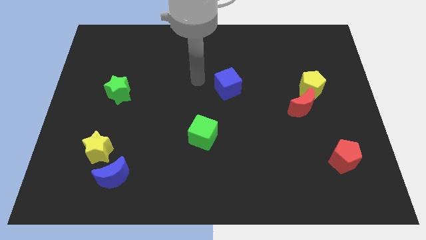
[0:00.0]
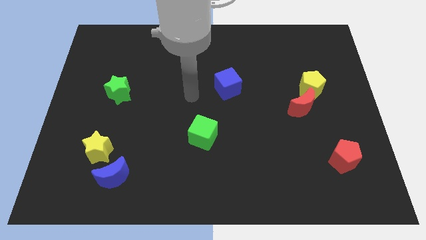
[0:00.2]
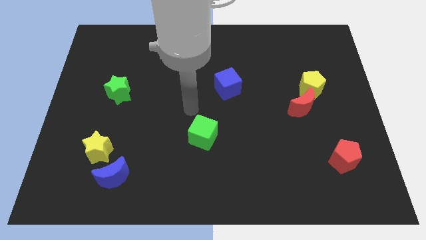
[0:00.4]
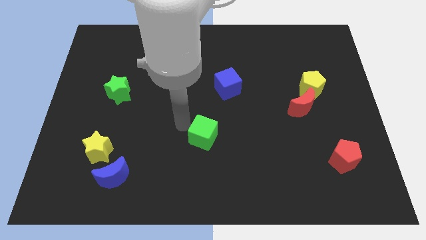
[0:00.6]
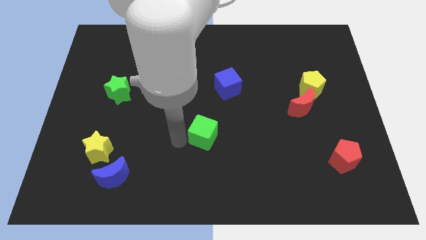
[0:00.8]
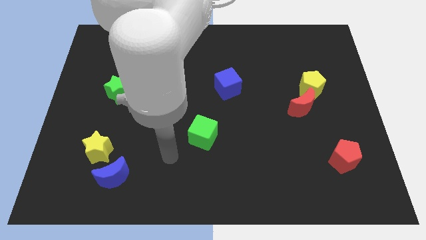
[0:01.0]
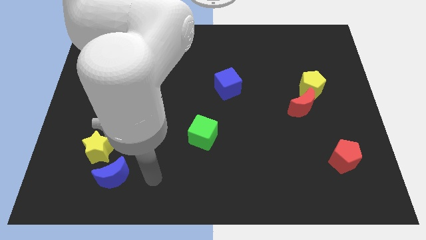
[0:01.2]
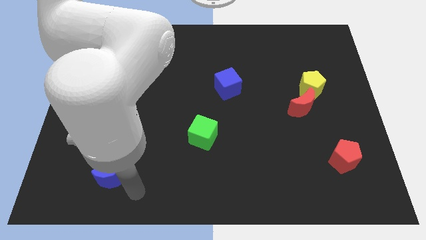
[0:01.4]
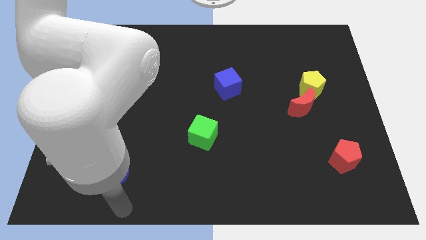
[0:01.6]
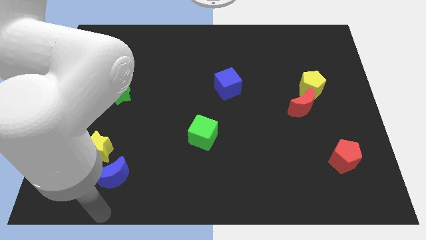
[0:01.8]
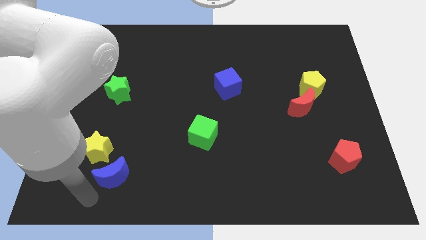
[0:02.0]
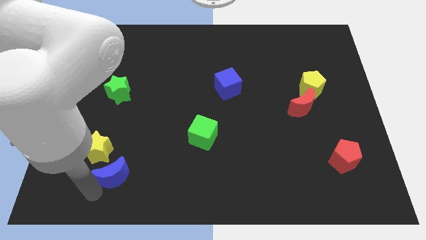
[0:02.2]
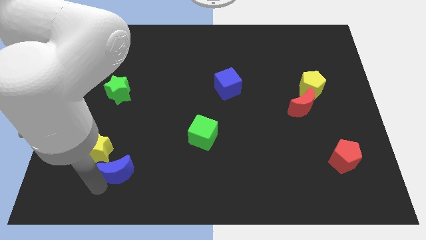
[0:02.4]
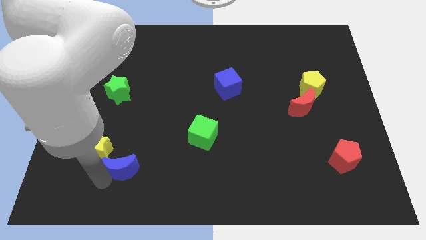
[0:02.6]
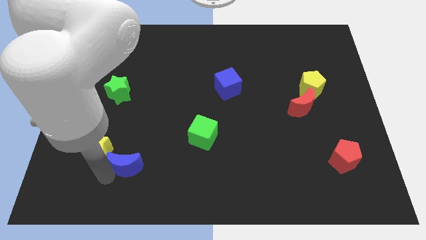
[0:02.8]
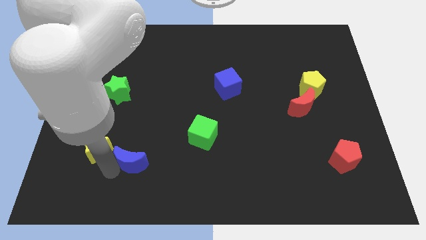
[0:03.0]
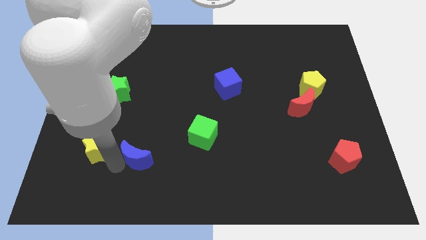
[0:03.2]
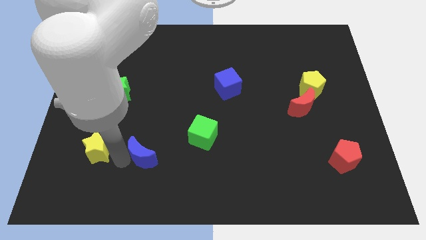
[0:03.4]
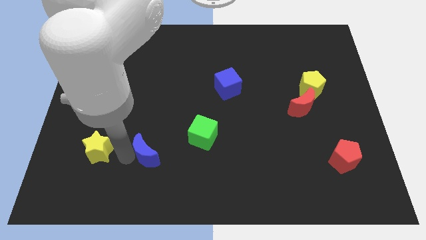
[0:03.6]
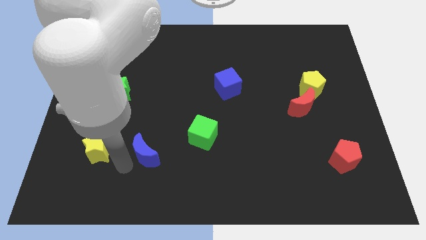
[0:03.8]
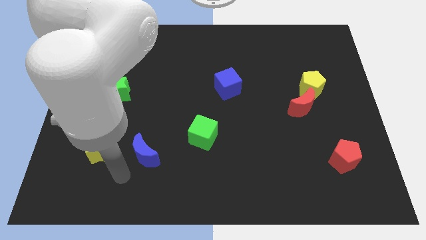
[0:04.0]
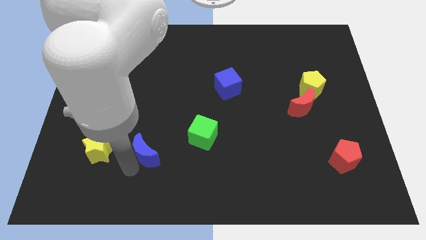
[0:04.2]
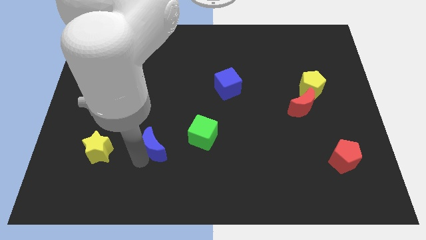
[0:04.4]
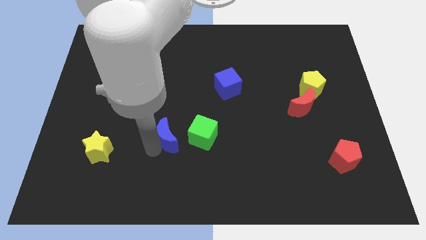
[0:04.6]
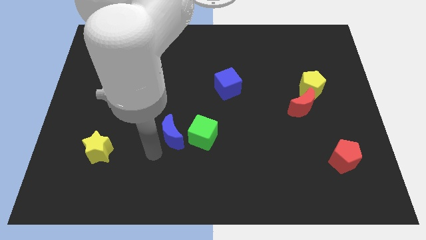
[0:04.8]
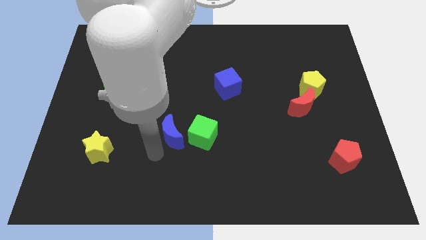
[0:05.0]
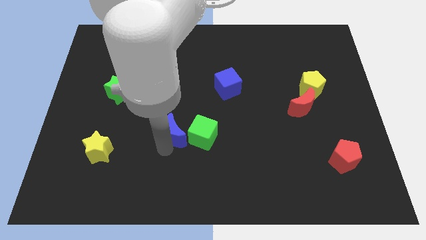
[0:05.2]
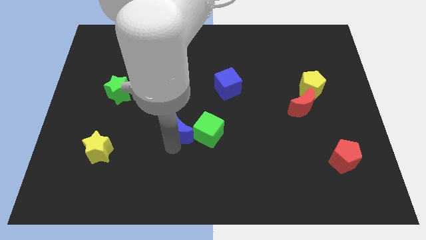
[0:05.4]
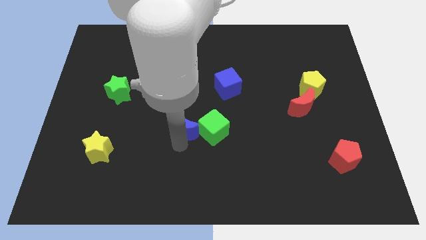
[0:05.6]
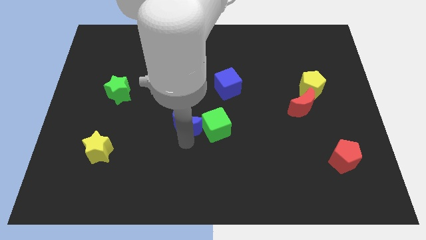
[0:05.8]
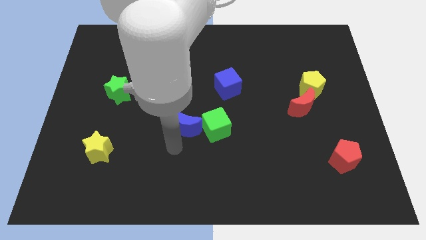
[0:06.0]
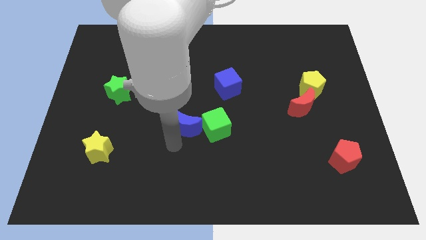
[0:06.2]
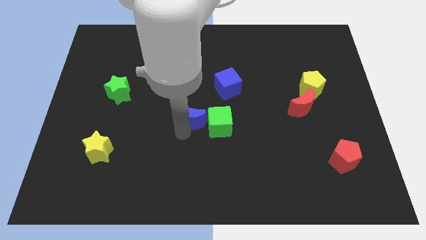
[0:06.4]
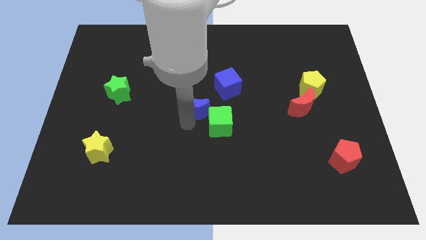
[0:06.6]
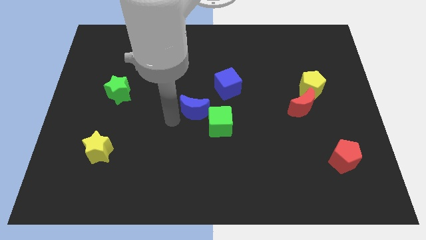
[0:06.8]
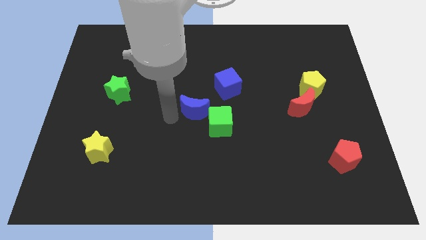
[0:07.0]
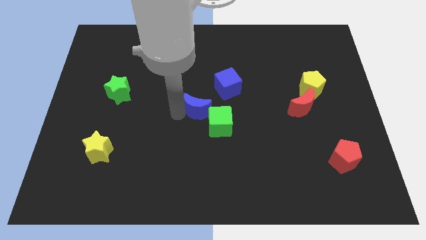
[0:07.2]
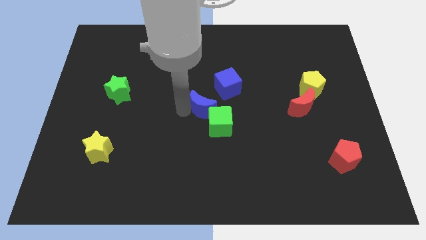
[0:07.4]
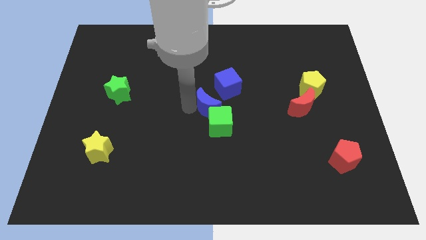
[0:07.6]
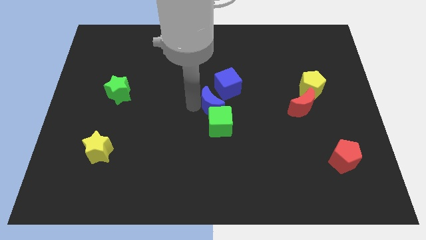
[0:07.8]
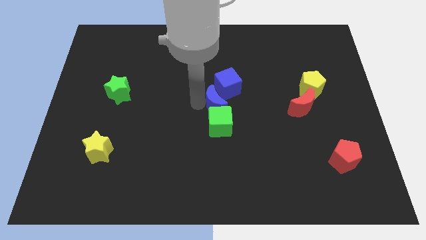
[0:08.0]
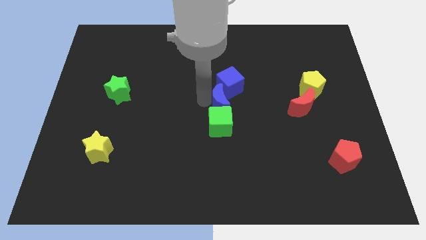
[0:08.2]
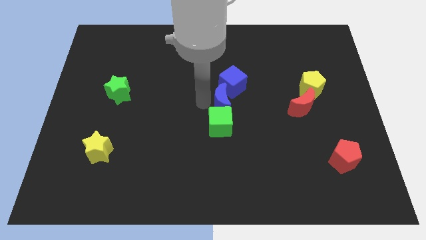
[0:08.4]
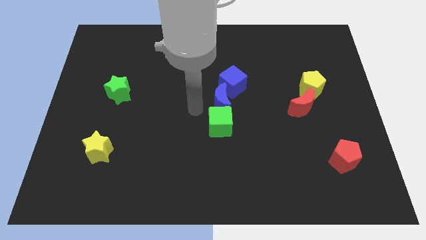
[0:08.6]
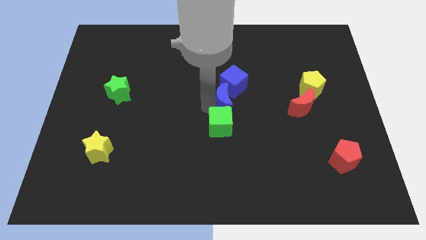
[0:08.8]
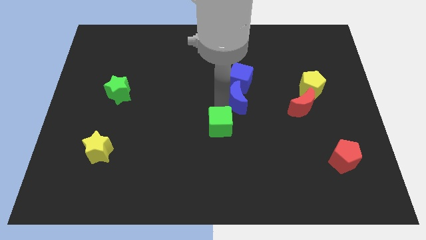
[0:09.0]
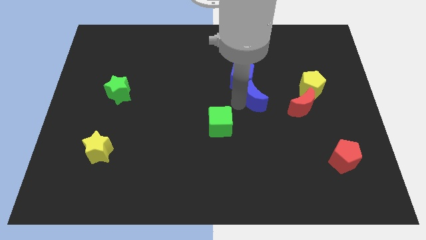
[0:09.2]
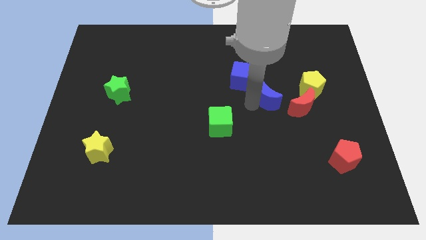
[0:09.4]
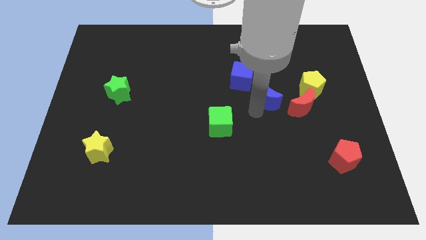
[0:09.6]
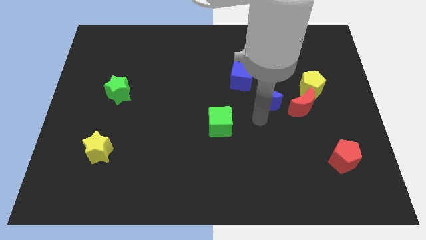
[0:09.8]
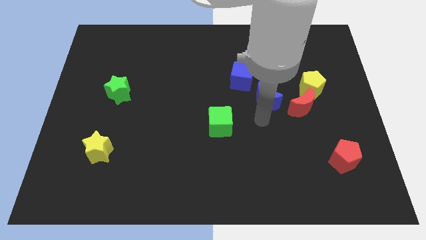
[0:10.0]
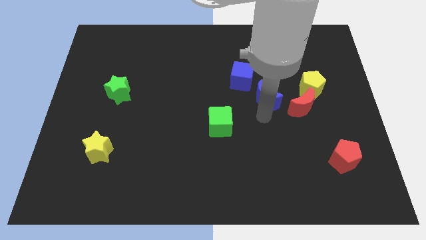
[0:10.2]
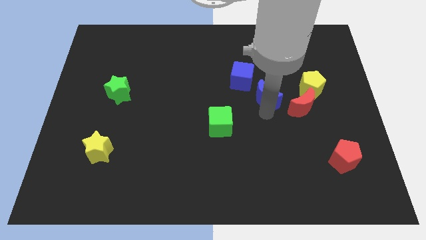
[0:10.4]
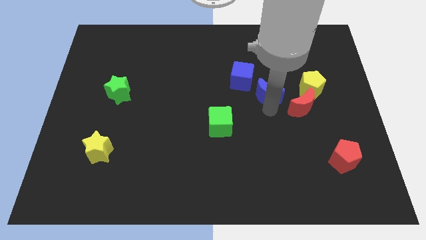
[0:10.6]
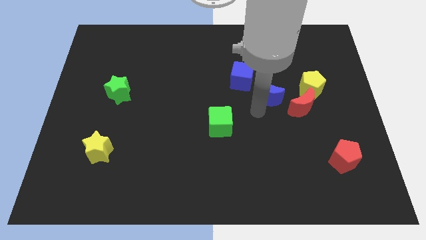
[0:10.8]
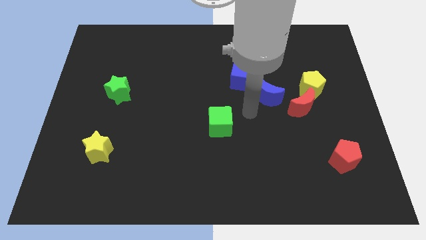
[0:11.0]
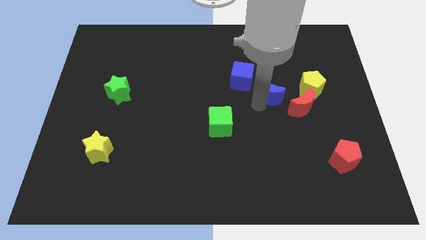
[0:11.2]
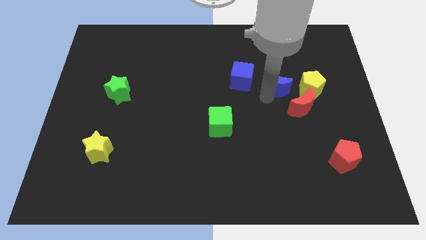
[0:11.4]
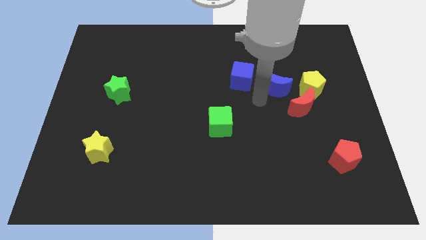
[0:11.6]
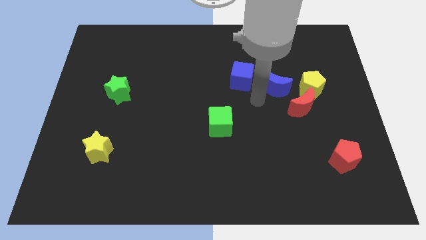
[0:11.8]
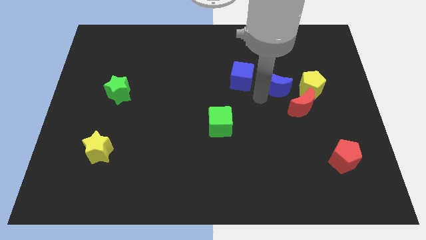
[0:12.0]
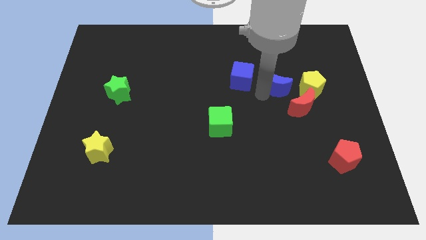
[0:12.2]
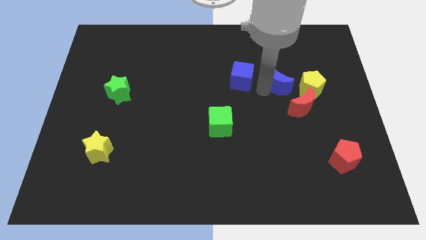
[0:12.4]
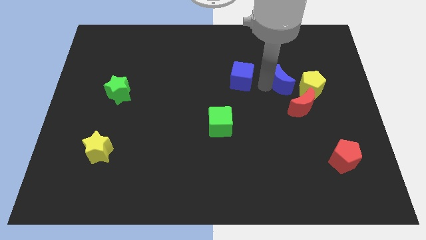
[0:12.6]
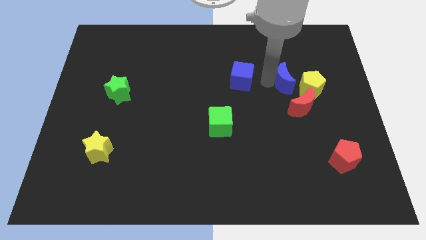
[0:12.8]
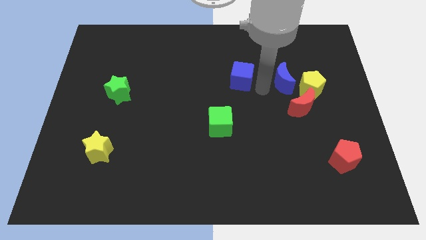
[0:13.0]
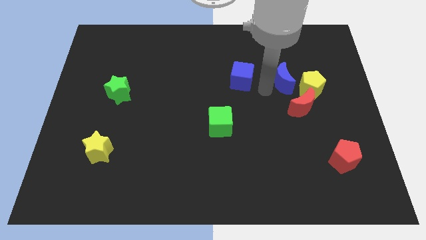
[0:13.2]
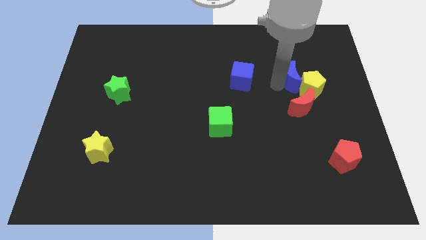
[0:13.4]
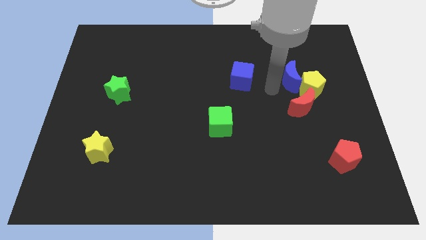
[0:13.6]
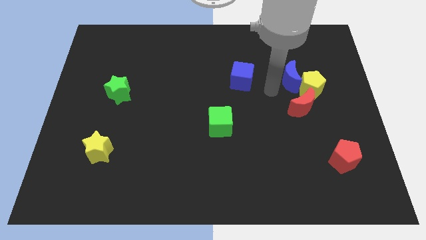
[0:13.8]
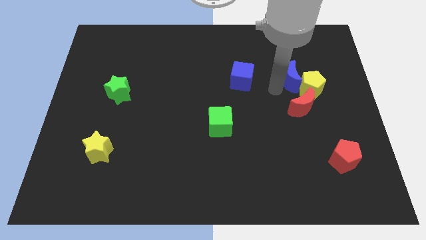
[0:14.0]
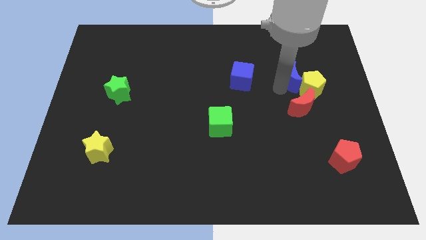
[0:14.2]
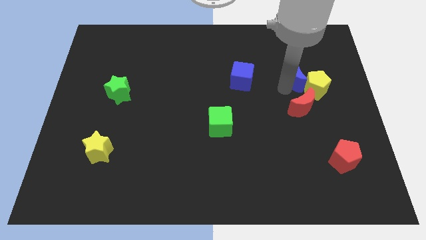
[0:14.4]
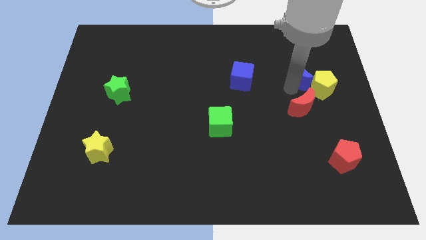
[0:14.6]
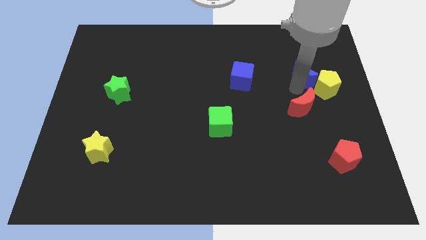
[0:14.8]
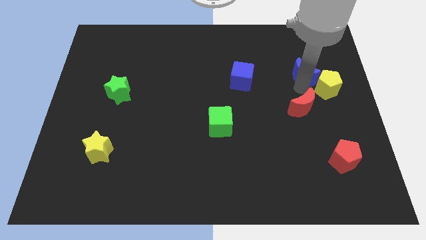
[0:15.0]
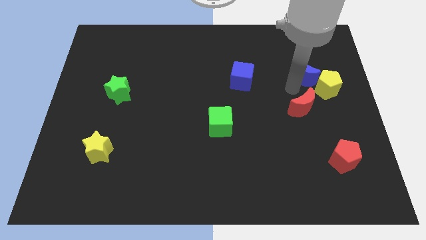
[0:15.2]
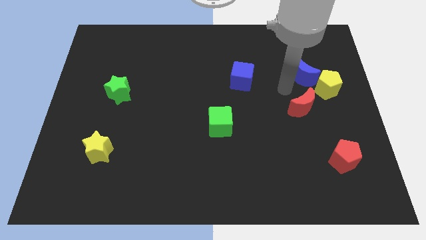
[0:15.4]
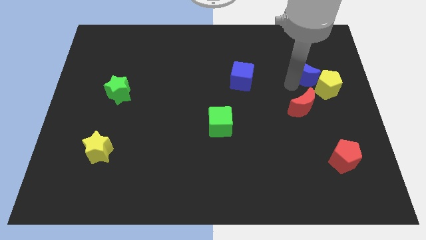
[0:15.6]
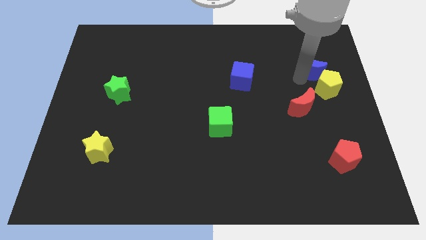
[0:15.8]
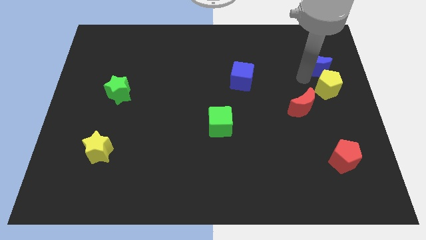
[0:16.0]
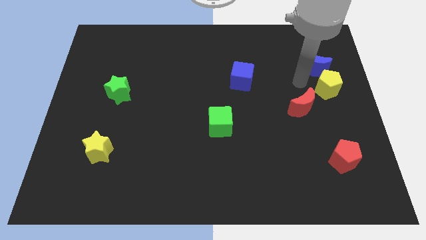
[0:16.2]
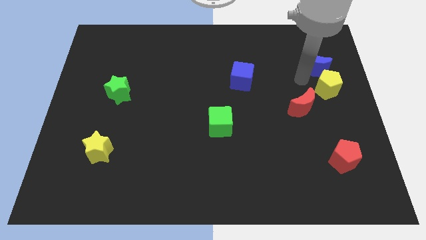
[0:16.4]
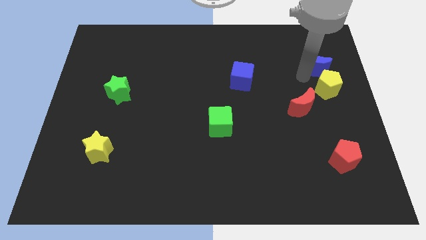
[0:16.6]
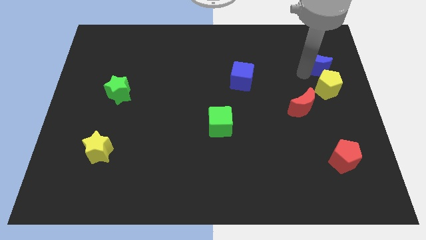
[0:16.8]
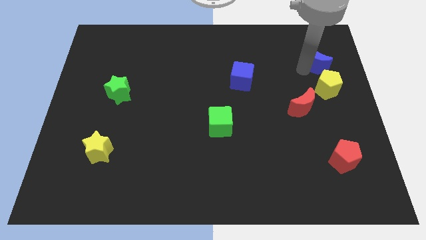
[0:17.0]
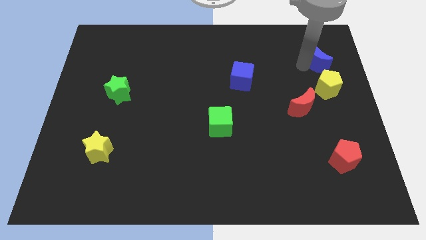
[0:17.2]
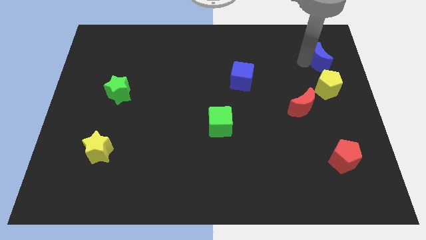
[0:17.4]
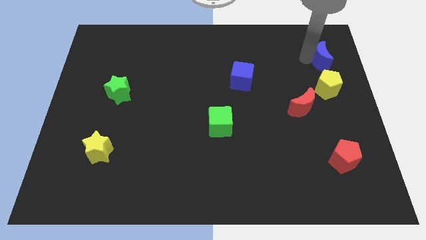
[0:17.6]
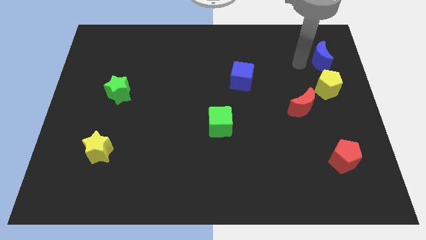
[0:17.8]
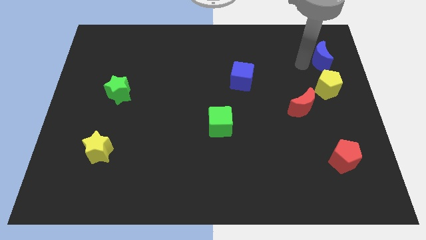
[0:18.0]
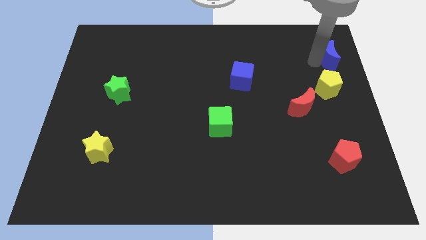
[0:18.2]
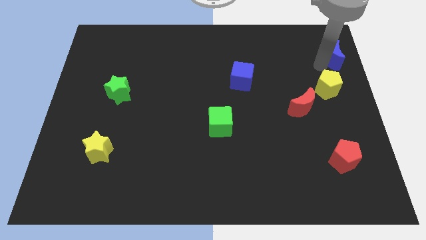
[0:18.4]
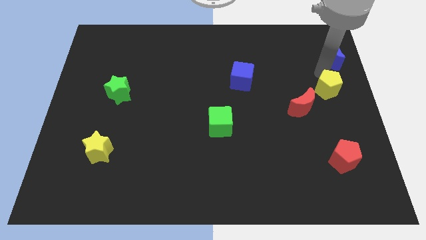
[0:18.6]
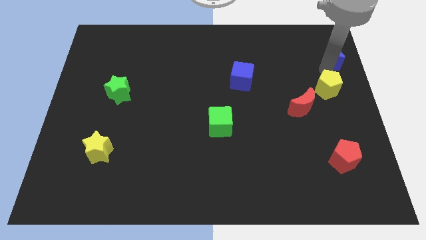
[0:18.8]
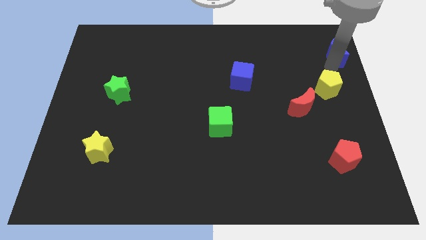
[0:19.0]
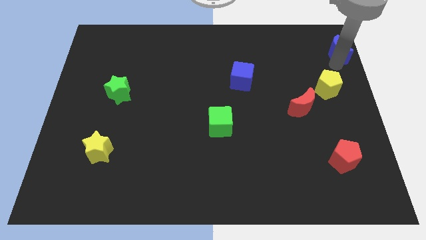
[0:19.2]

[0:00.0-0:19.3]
push the blue moon to the upper right corner
